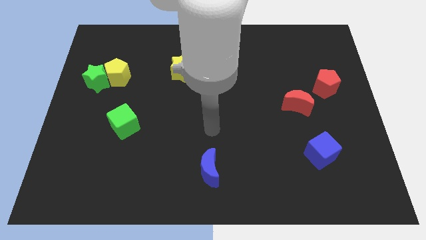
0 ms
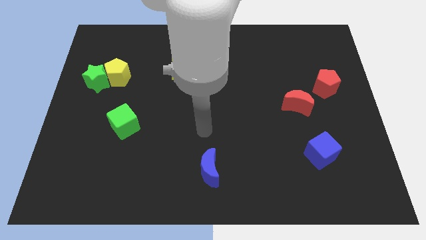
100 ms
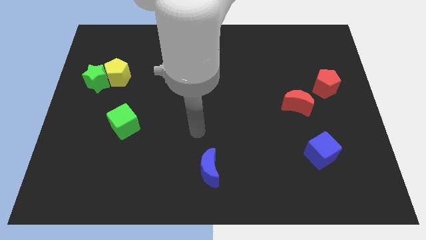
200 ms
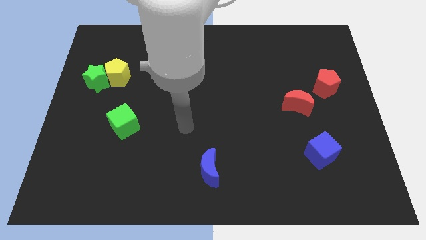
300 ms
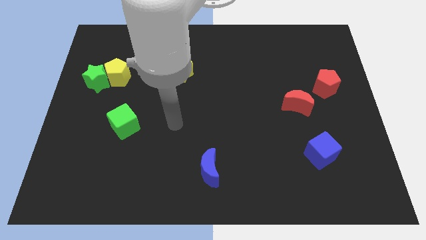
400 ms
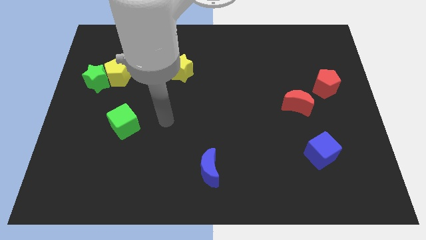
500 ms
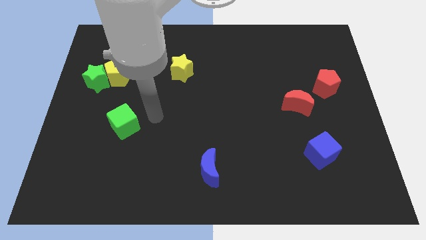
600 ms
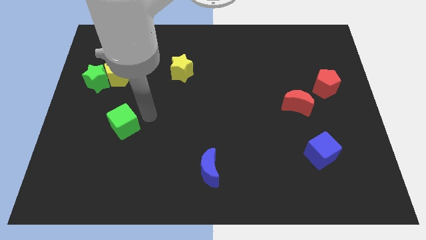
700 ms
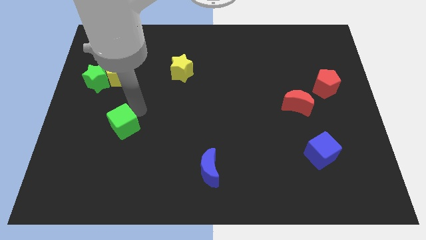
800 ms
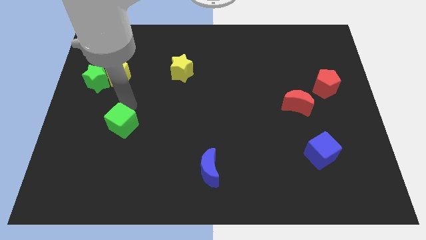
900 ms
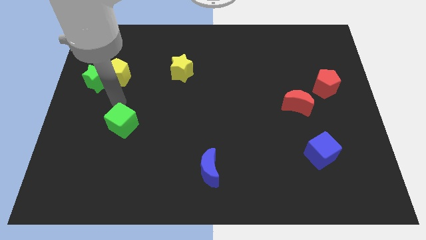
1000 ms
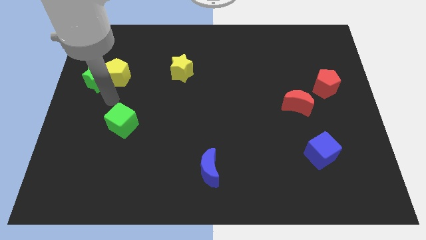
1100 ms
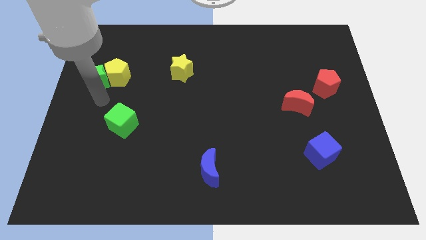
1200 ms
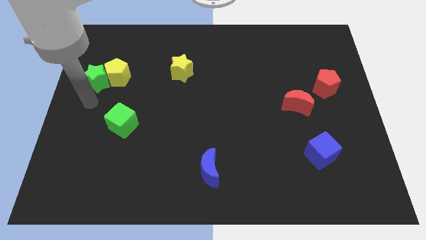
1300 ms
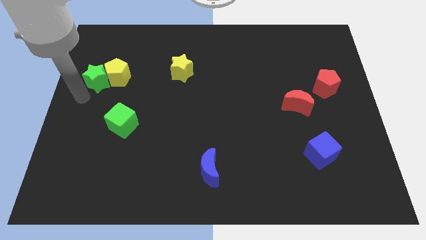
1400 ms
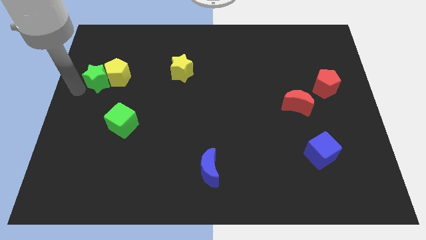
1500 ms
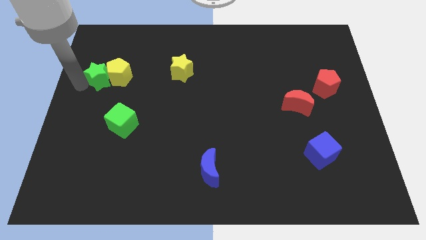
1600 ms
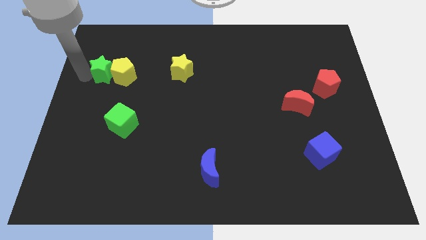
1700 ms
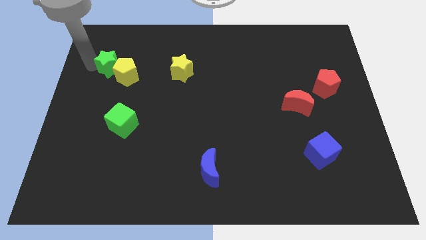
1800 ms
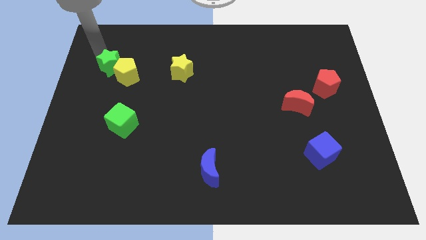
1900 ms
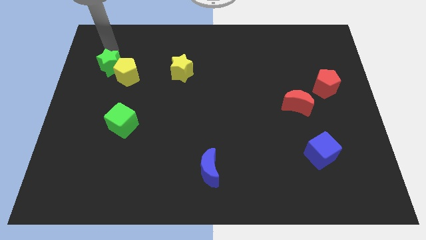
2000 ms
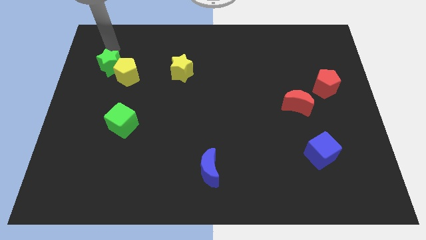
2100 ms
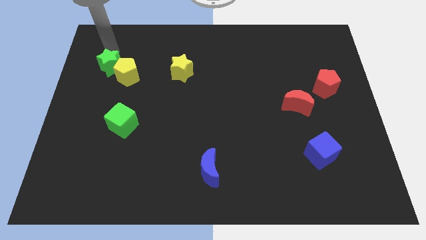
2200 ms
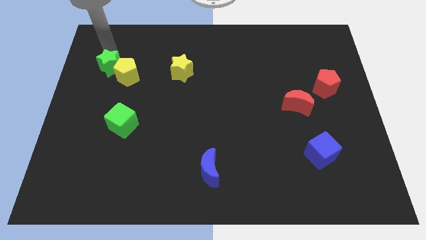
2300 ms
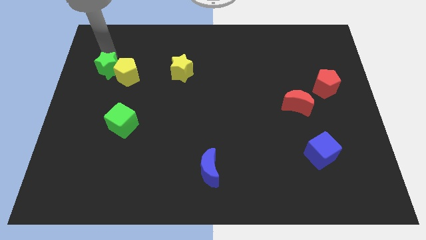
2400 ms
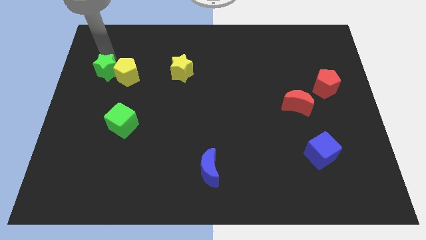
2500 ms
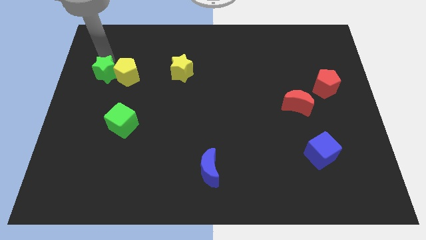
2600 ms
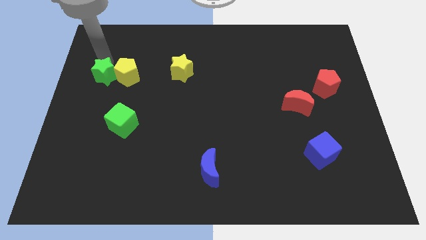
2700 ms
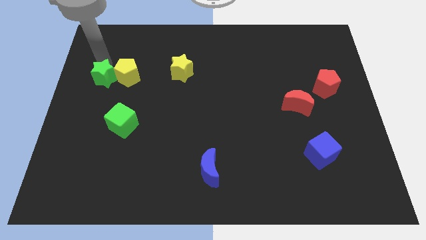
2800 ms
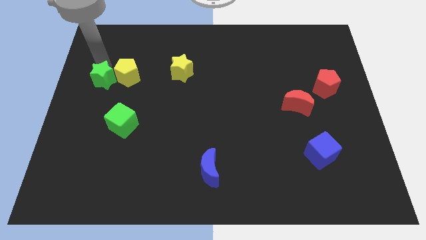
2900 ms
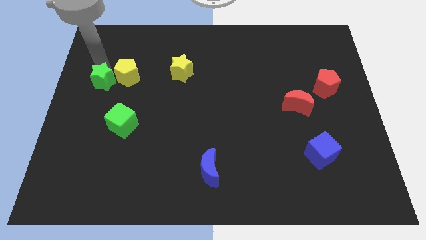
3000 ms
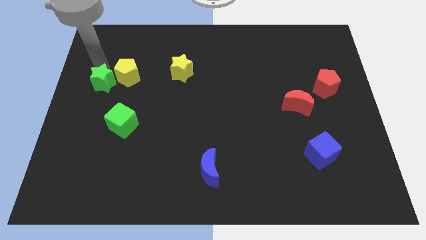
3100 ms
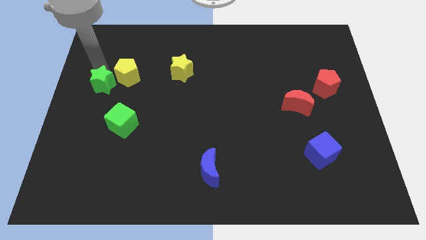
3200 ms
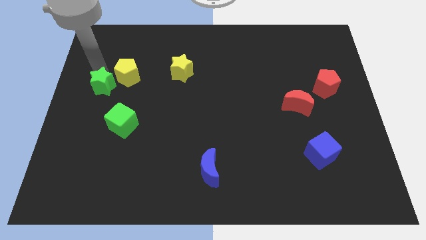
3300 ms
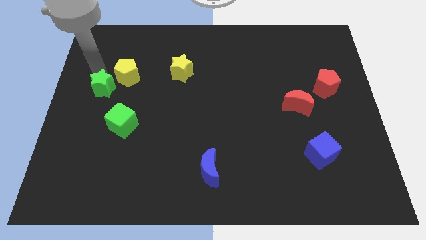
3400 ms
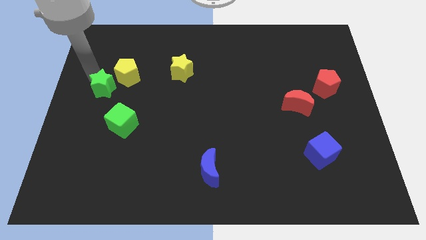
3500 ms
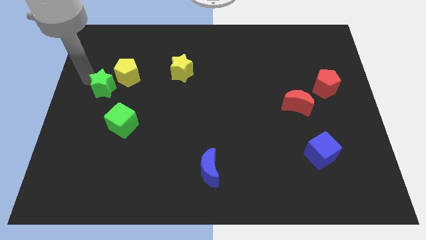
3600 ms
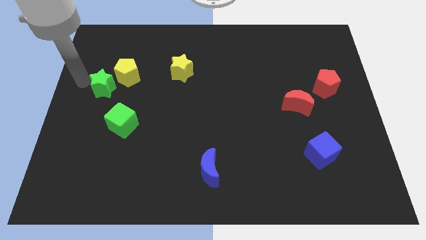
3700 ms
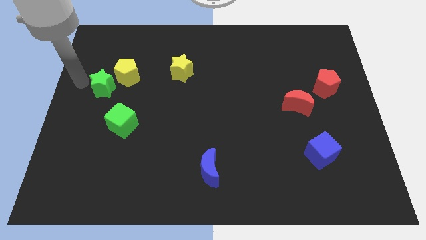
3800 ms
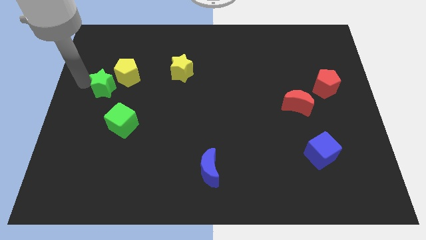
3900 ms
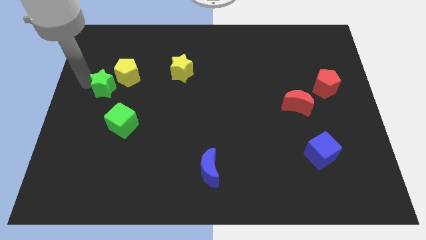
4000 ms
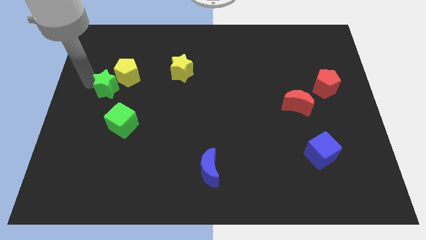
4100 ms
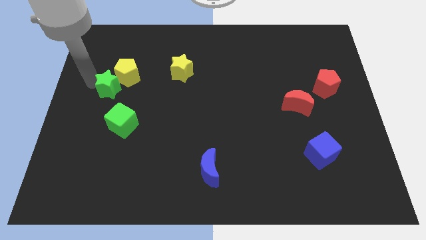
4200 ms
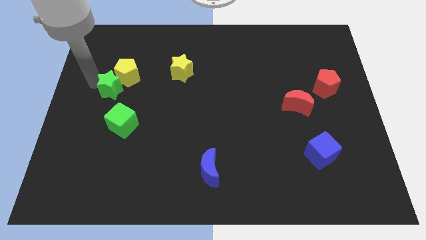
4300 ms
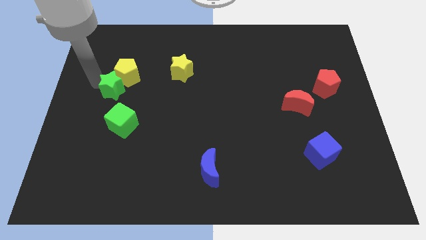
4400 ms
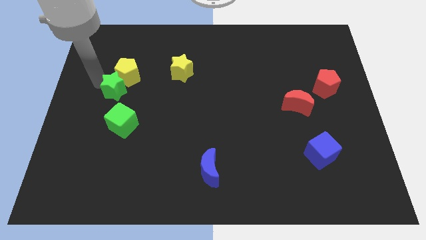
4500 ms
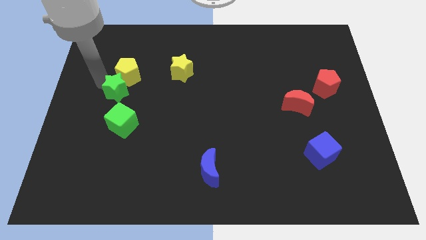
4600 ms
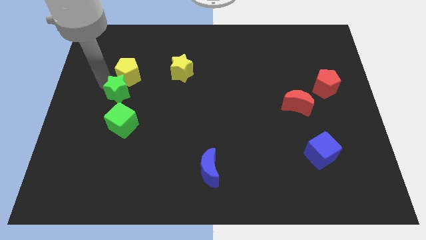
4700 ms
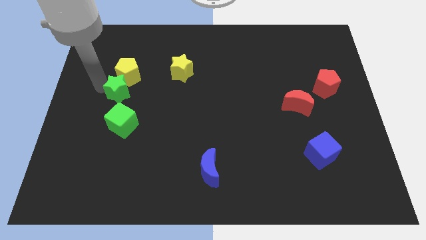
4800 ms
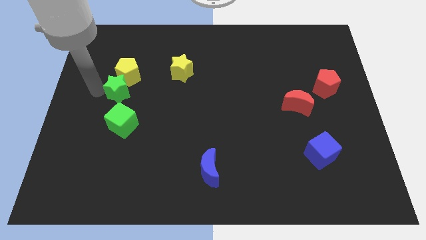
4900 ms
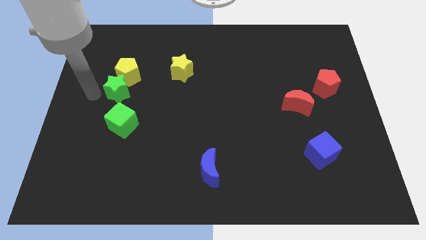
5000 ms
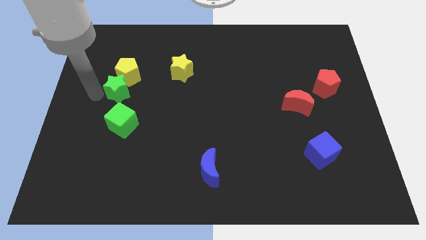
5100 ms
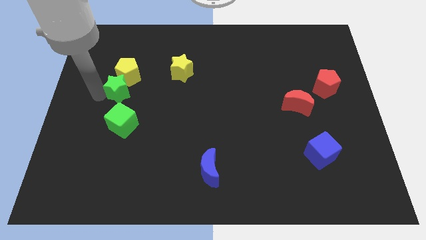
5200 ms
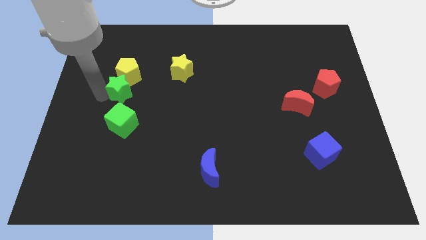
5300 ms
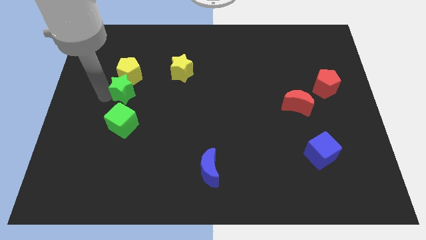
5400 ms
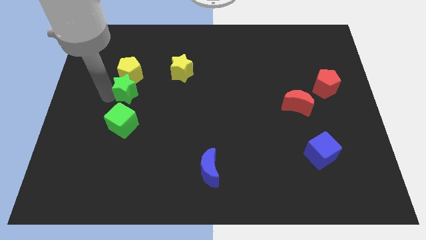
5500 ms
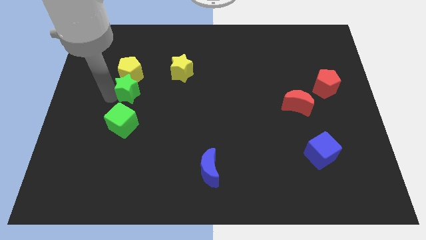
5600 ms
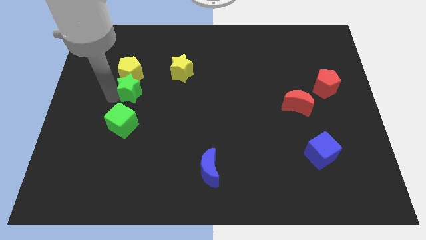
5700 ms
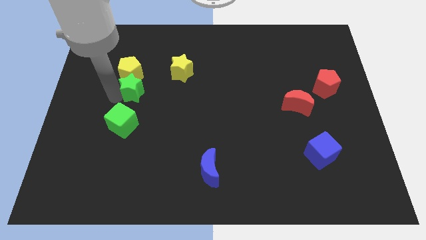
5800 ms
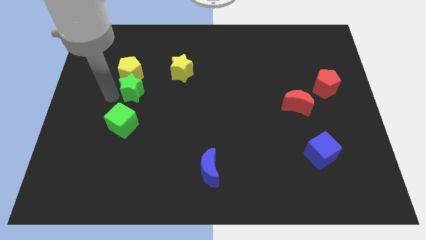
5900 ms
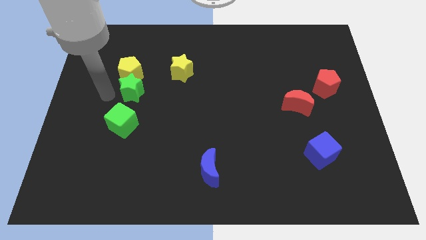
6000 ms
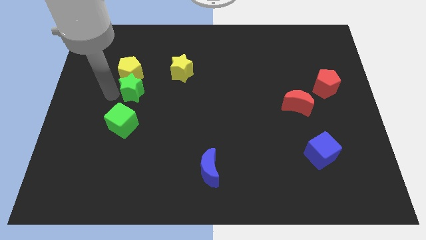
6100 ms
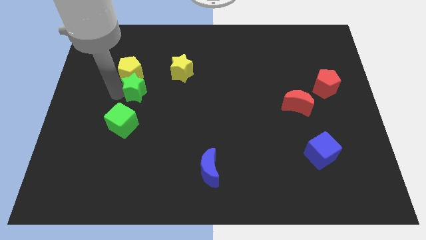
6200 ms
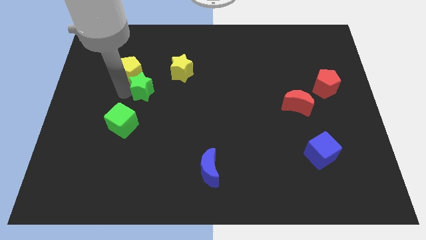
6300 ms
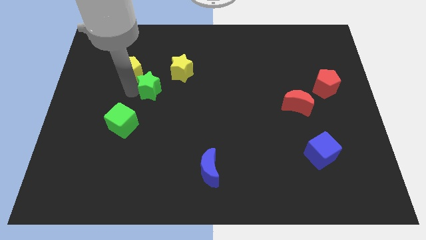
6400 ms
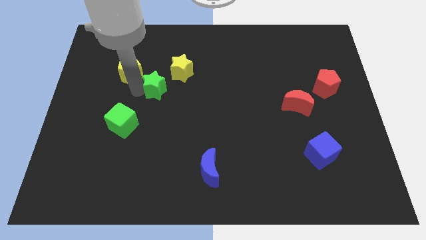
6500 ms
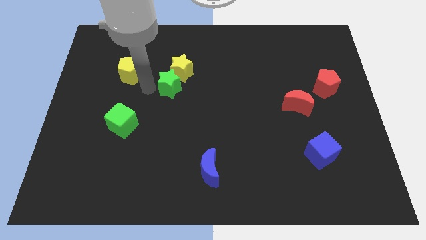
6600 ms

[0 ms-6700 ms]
move the green star to the middle
